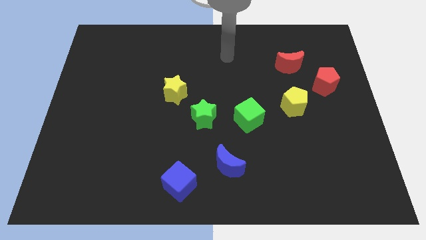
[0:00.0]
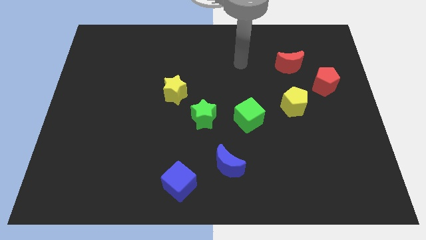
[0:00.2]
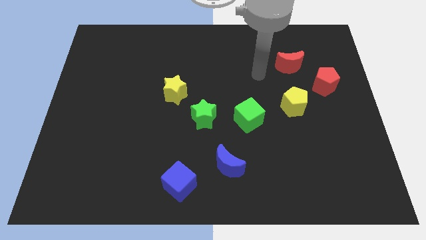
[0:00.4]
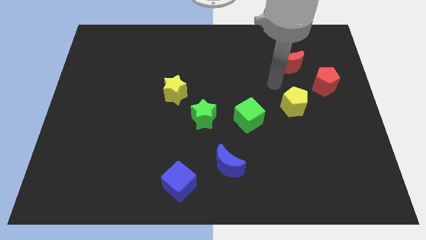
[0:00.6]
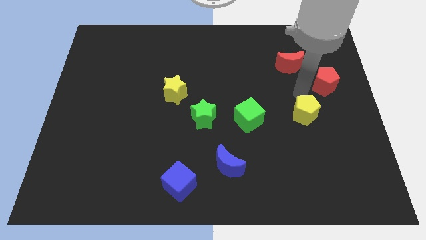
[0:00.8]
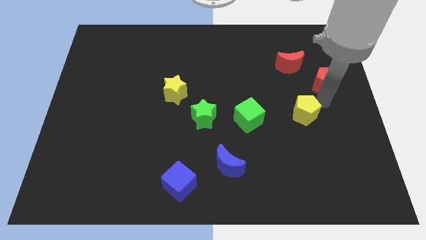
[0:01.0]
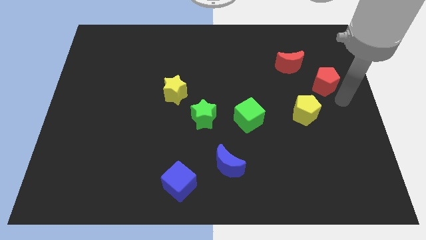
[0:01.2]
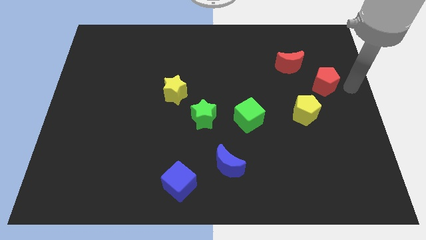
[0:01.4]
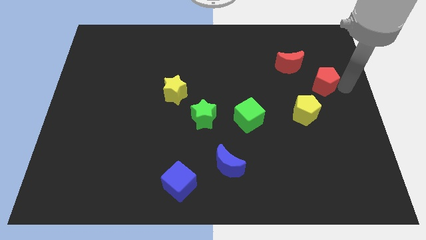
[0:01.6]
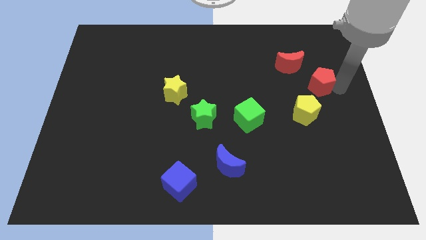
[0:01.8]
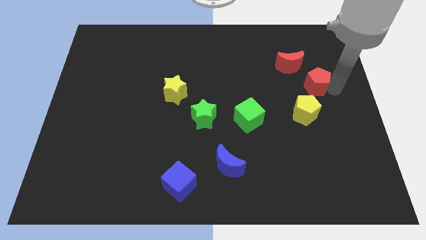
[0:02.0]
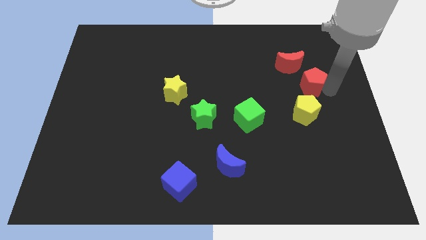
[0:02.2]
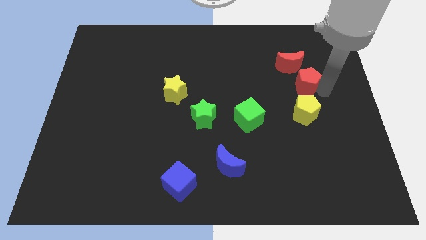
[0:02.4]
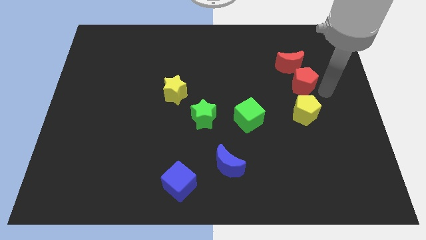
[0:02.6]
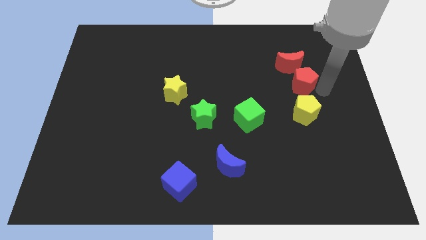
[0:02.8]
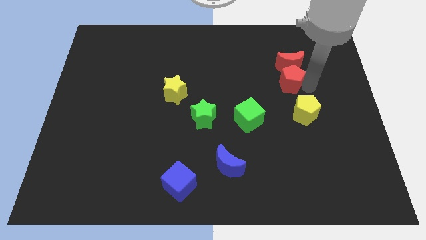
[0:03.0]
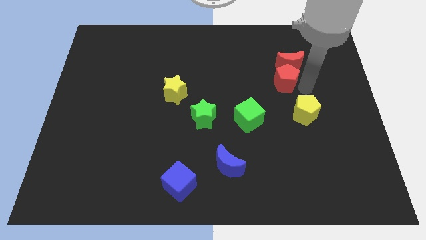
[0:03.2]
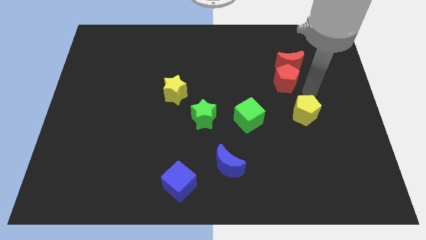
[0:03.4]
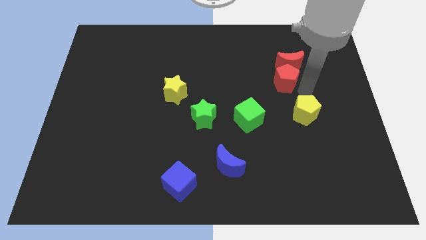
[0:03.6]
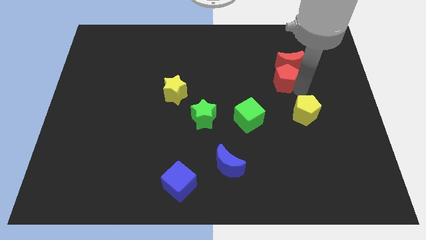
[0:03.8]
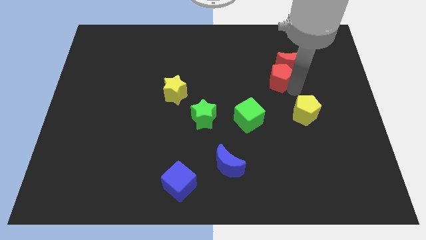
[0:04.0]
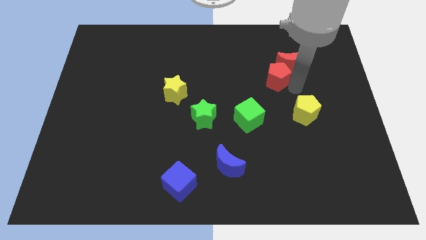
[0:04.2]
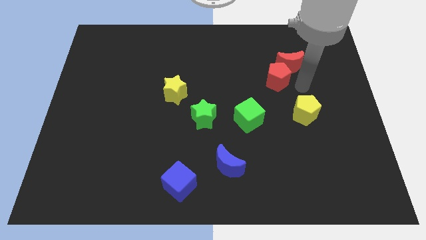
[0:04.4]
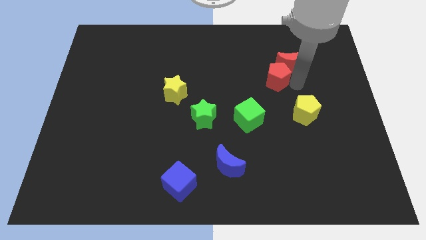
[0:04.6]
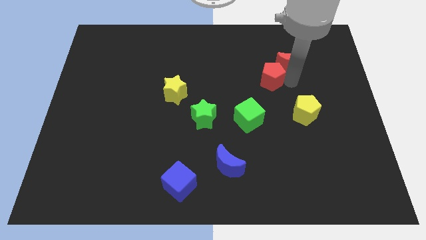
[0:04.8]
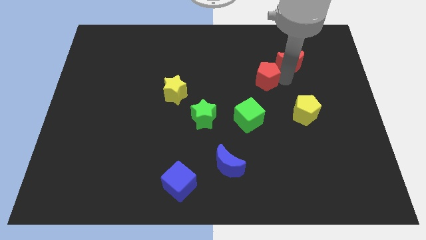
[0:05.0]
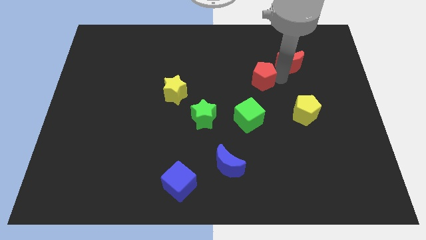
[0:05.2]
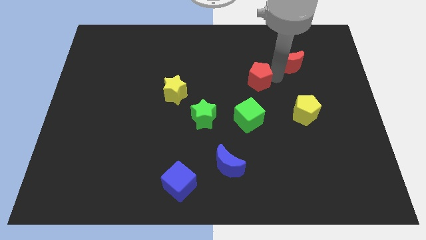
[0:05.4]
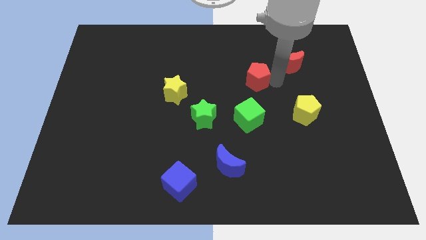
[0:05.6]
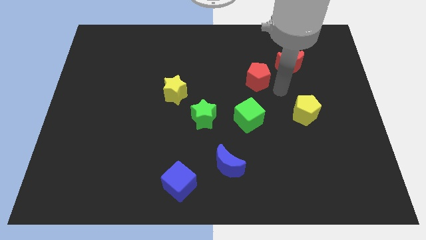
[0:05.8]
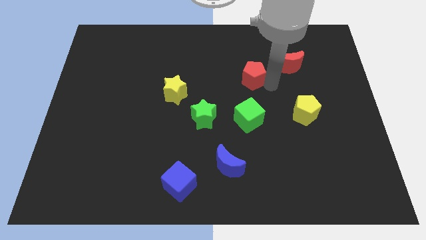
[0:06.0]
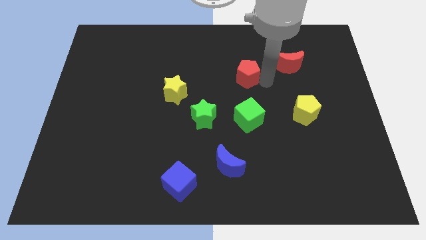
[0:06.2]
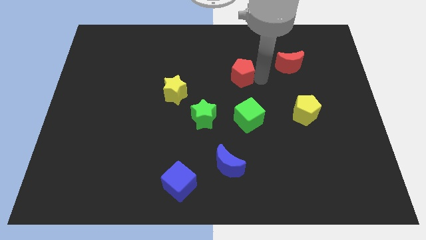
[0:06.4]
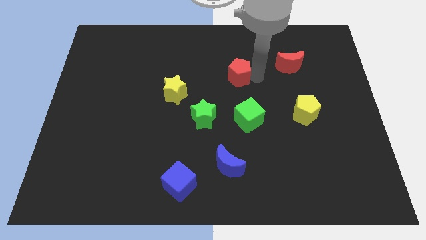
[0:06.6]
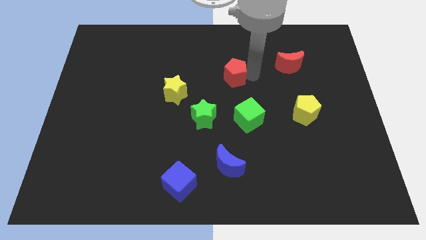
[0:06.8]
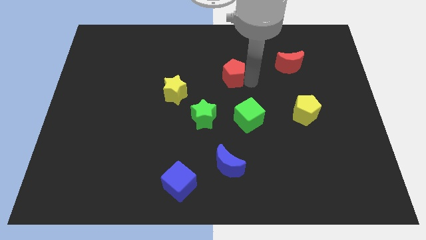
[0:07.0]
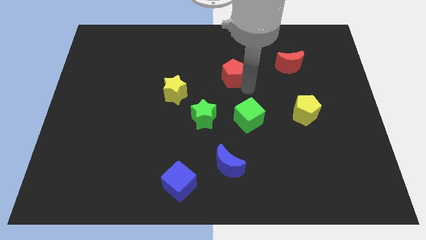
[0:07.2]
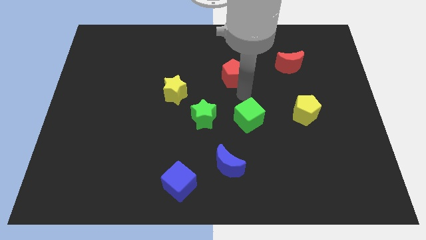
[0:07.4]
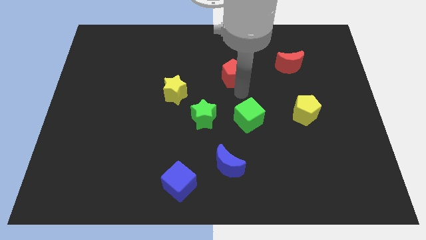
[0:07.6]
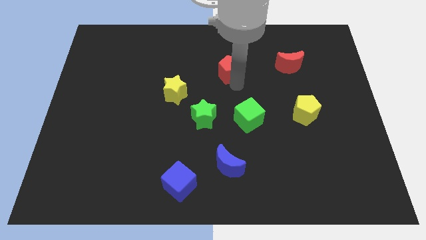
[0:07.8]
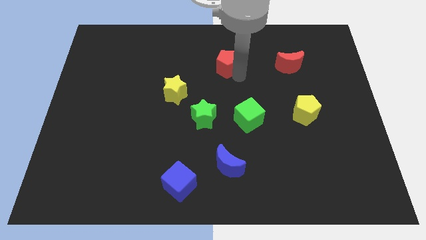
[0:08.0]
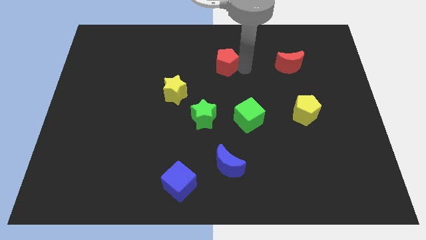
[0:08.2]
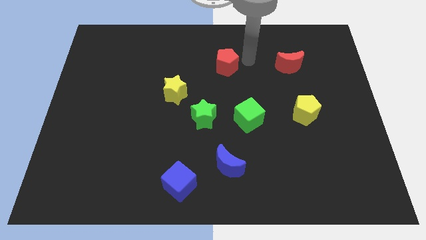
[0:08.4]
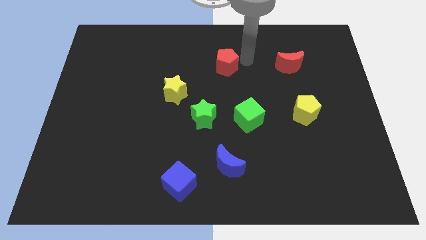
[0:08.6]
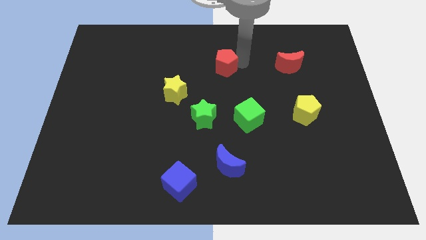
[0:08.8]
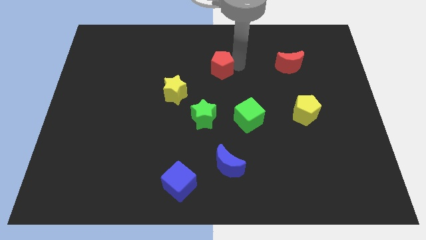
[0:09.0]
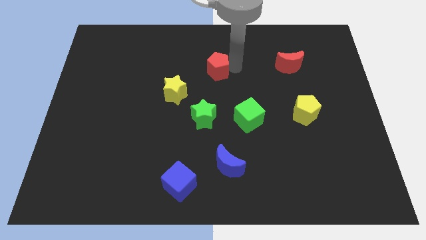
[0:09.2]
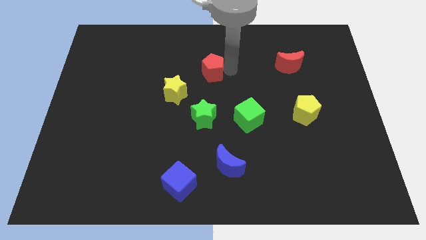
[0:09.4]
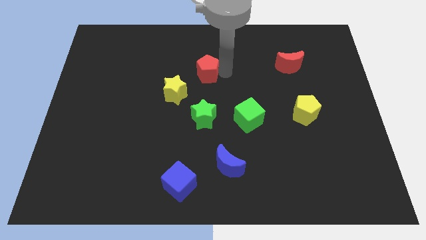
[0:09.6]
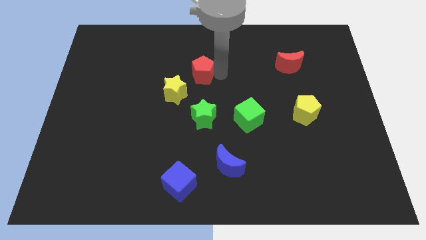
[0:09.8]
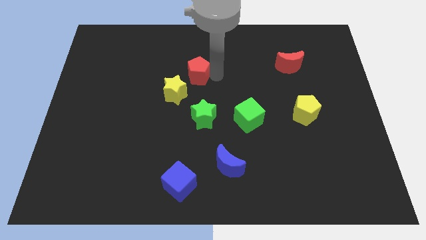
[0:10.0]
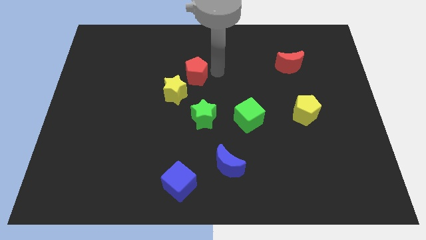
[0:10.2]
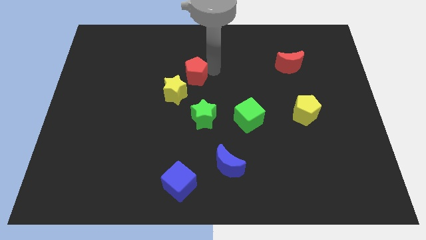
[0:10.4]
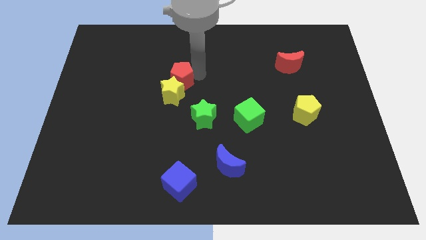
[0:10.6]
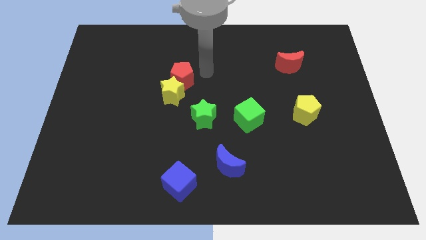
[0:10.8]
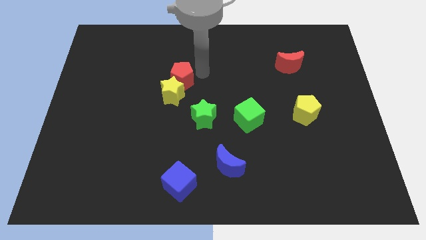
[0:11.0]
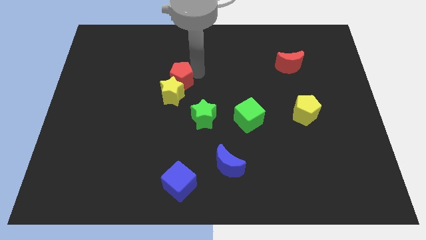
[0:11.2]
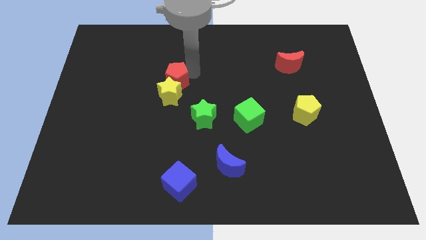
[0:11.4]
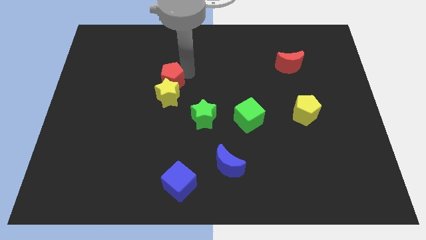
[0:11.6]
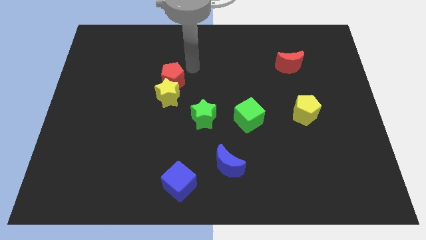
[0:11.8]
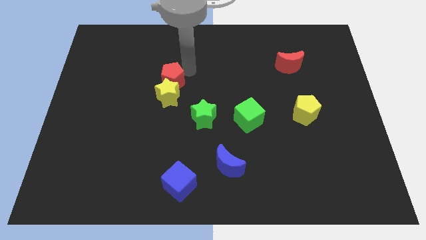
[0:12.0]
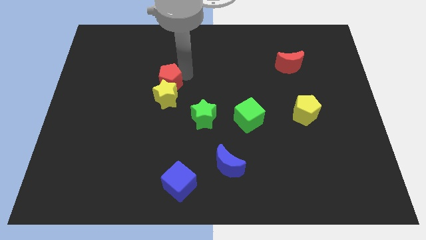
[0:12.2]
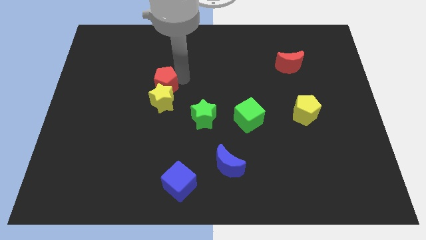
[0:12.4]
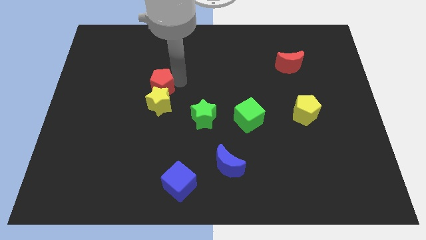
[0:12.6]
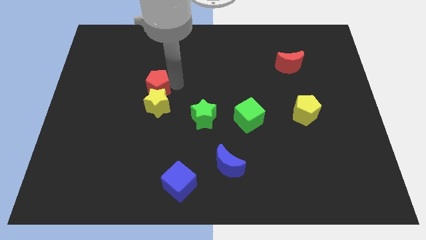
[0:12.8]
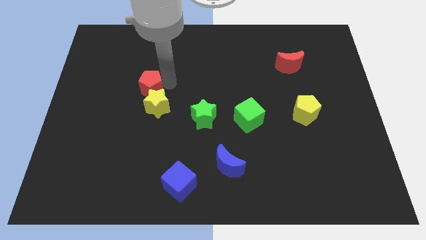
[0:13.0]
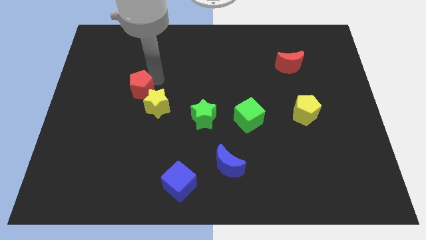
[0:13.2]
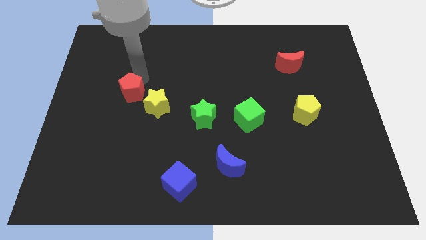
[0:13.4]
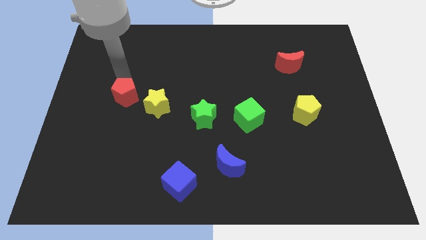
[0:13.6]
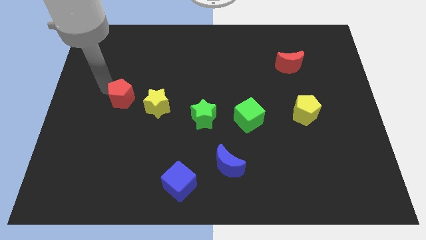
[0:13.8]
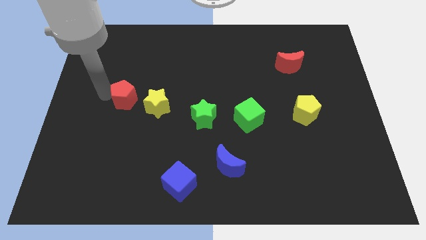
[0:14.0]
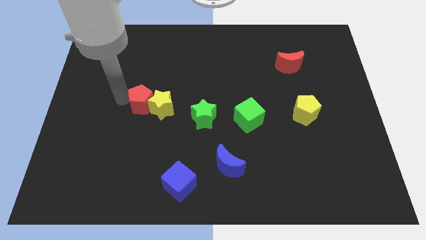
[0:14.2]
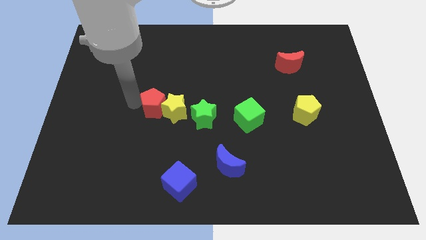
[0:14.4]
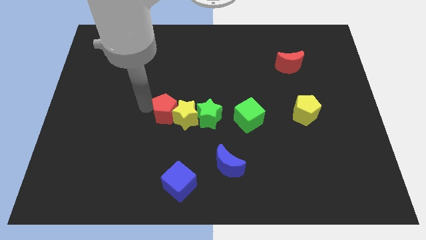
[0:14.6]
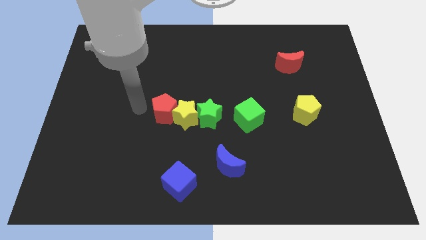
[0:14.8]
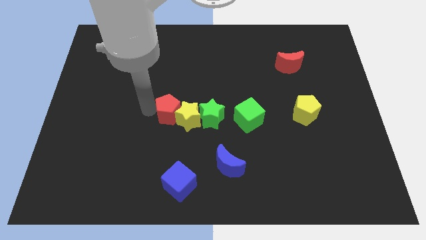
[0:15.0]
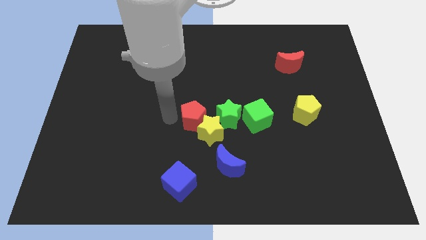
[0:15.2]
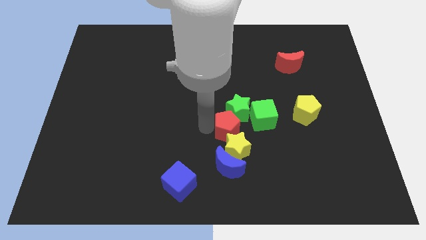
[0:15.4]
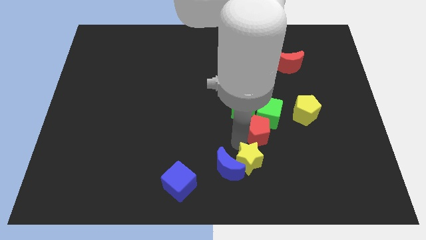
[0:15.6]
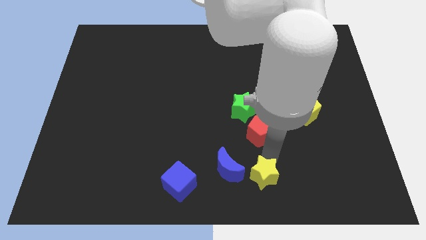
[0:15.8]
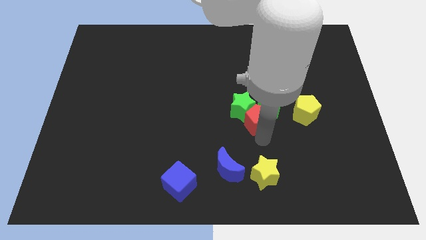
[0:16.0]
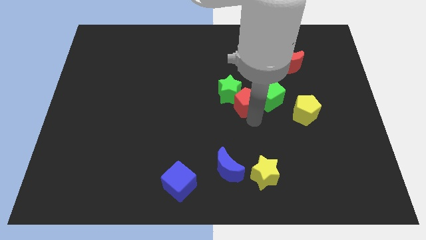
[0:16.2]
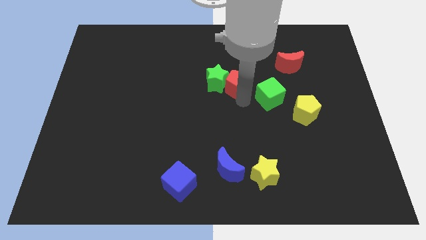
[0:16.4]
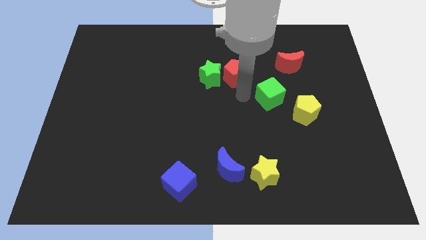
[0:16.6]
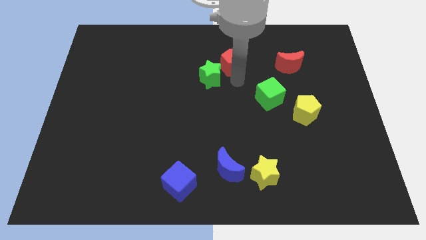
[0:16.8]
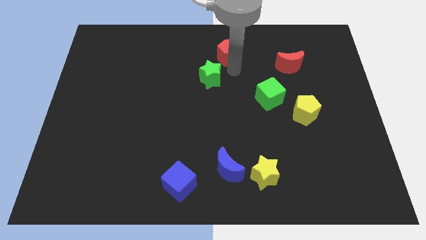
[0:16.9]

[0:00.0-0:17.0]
slide the red pentagon to the top side
